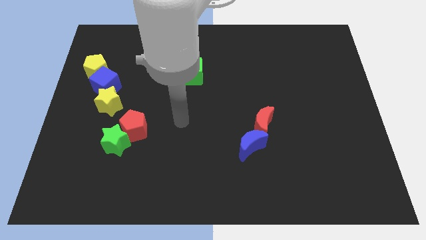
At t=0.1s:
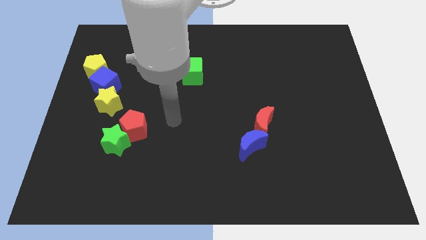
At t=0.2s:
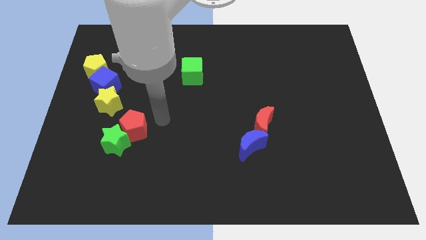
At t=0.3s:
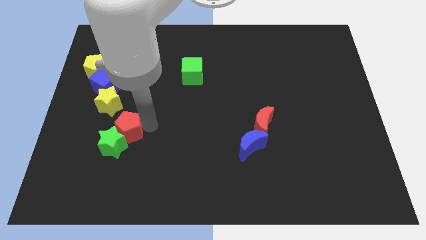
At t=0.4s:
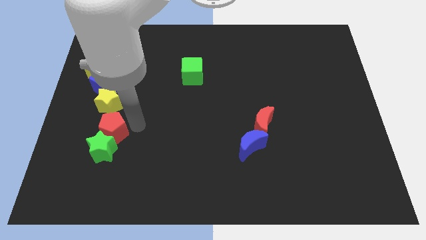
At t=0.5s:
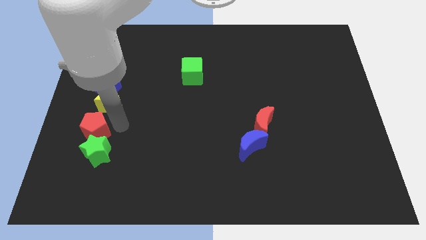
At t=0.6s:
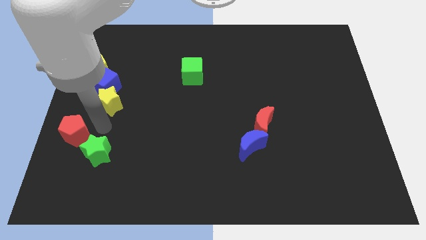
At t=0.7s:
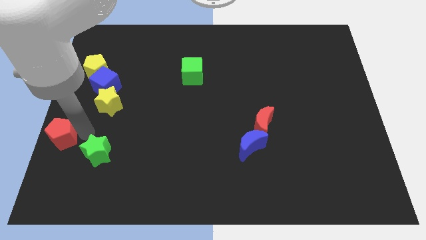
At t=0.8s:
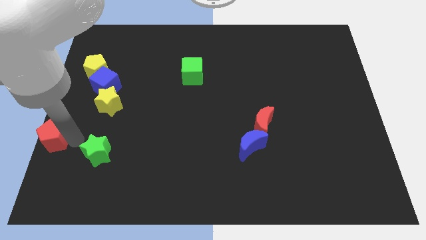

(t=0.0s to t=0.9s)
separate the green star from the red pentagon

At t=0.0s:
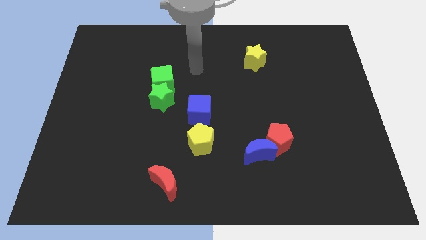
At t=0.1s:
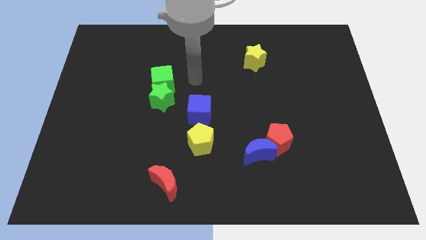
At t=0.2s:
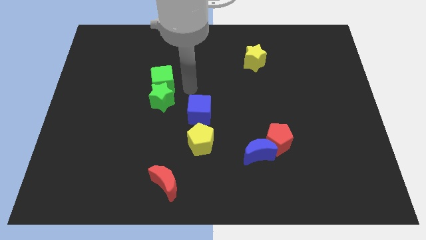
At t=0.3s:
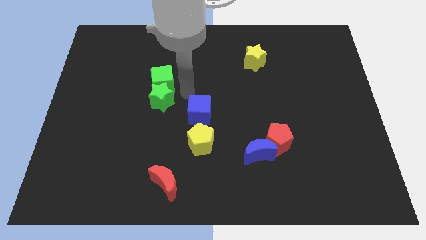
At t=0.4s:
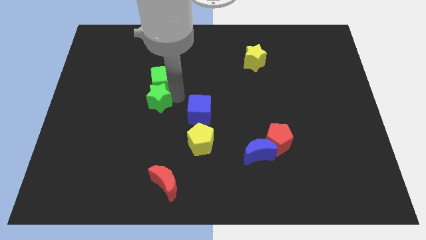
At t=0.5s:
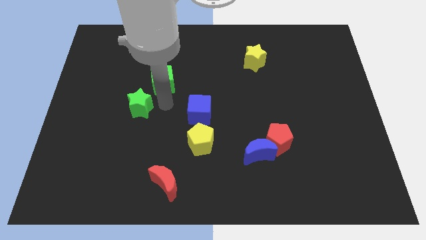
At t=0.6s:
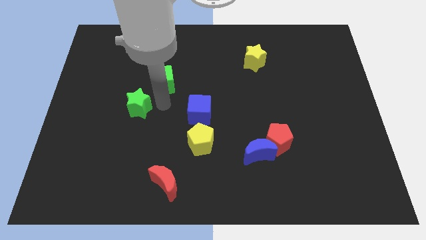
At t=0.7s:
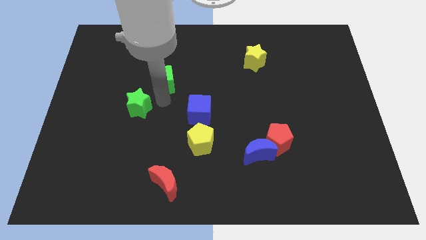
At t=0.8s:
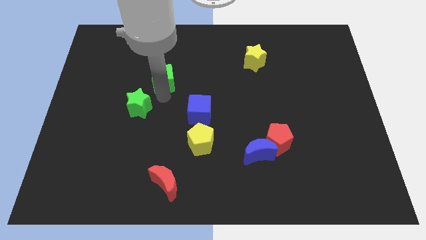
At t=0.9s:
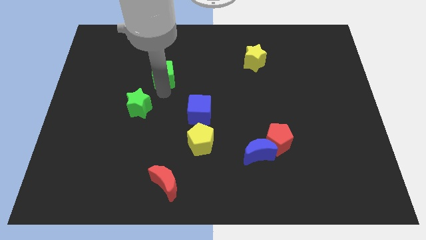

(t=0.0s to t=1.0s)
move the green cube away from the green star

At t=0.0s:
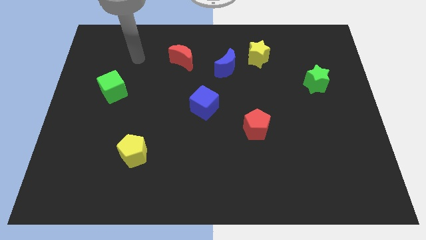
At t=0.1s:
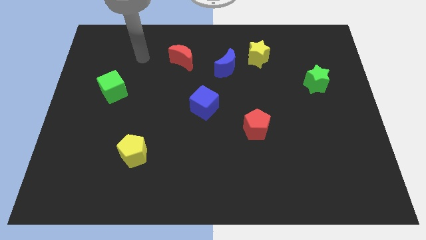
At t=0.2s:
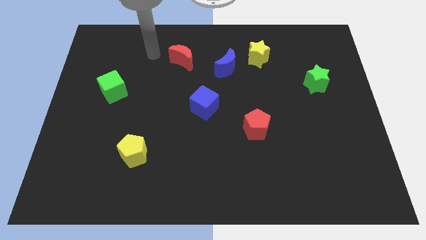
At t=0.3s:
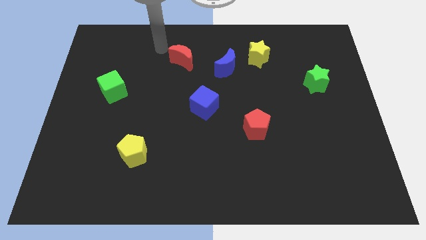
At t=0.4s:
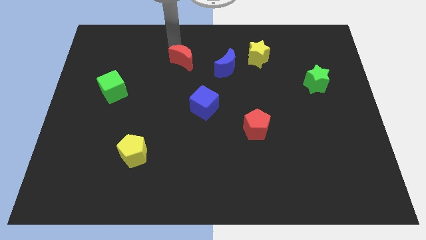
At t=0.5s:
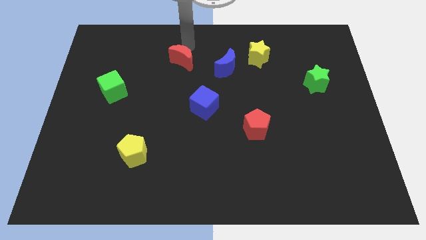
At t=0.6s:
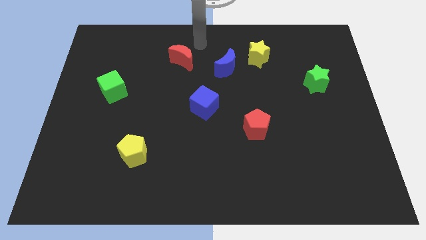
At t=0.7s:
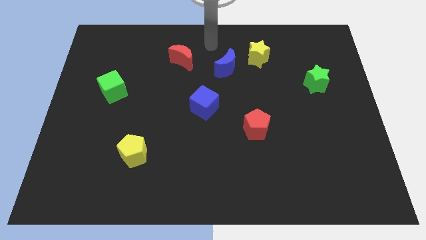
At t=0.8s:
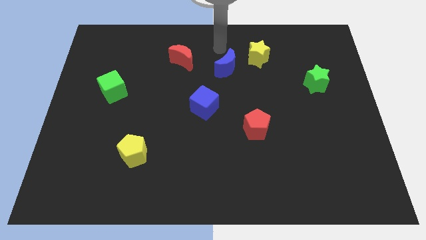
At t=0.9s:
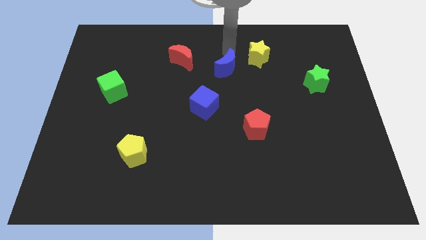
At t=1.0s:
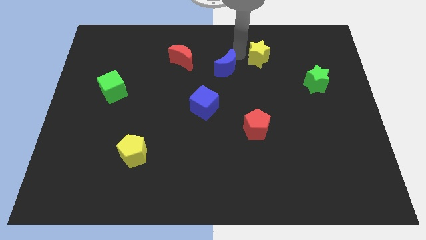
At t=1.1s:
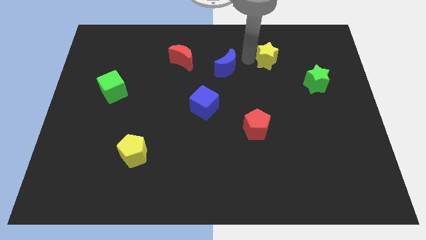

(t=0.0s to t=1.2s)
separate the blue moon from the yellow star

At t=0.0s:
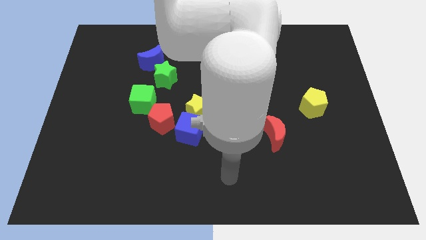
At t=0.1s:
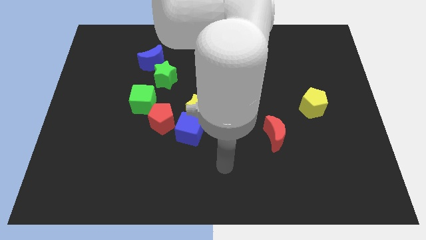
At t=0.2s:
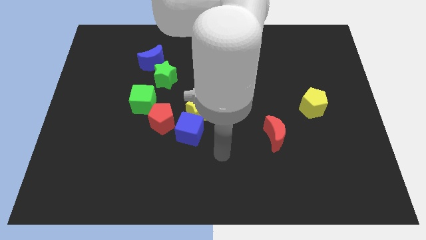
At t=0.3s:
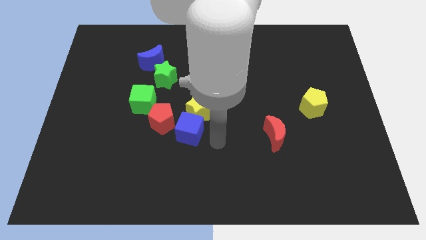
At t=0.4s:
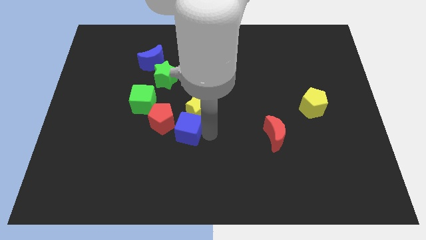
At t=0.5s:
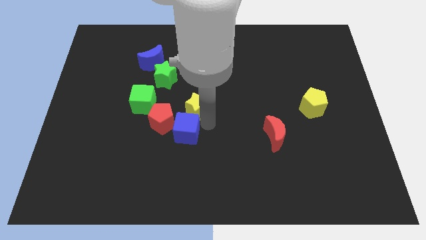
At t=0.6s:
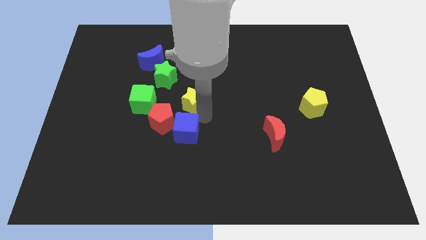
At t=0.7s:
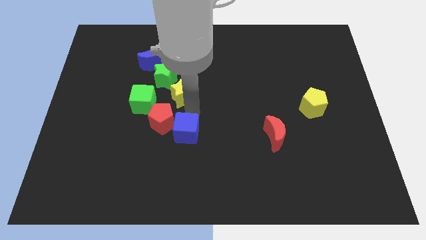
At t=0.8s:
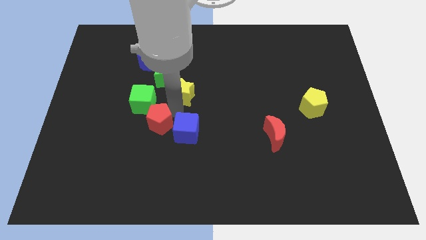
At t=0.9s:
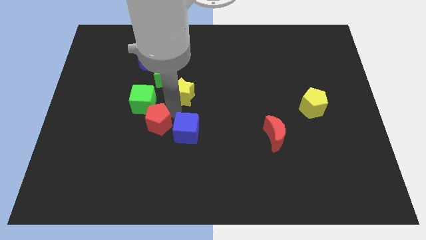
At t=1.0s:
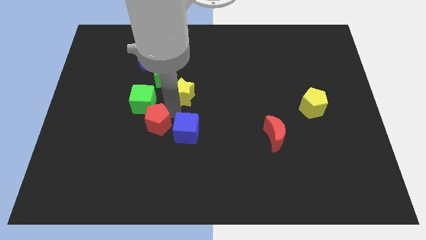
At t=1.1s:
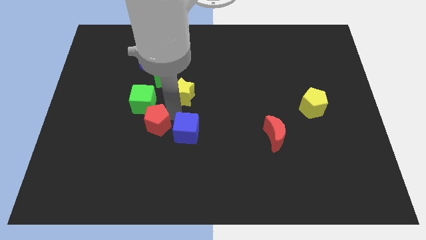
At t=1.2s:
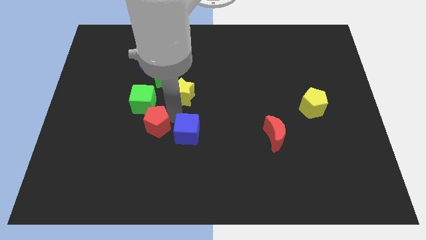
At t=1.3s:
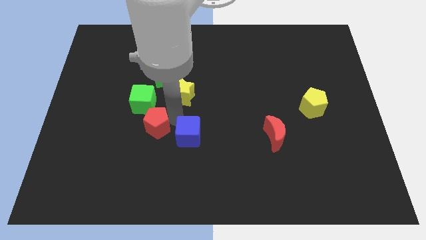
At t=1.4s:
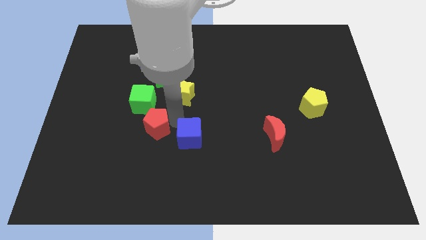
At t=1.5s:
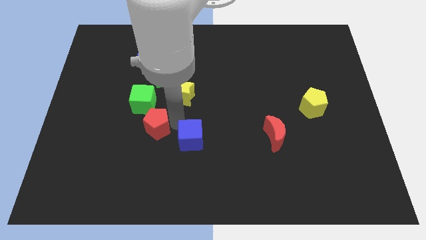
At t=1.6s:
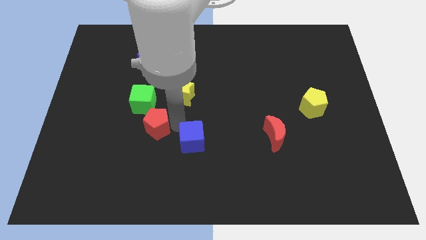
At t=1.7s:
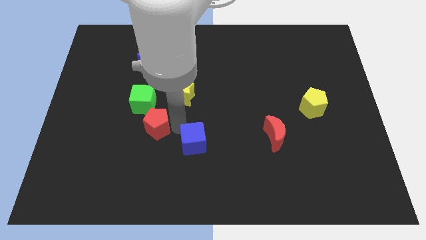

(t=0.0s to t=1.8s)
separate the blue cube from the yellow star and red pentagon

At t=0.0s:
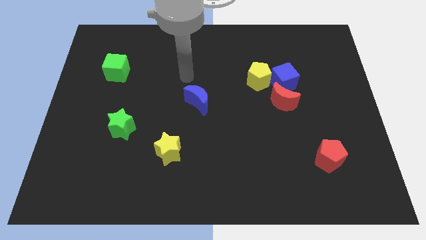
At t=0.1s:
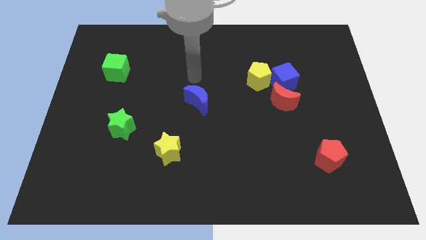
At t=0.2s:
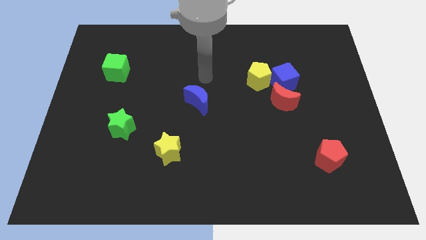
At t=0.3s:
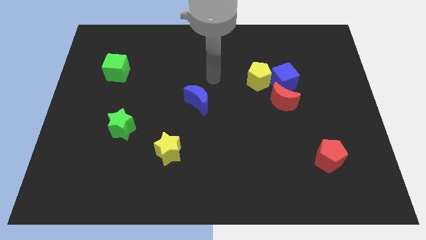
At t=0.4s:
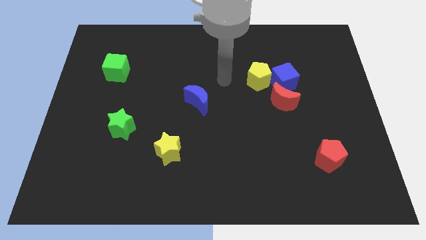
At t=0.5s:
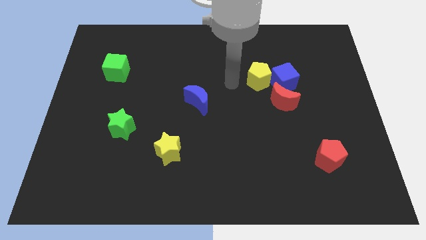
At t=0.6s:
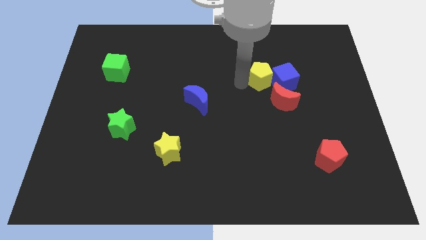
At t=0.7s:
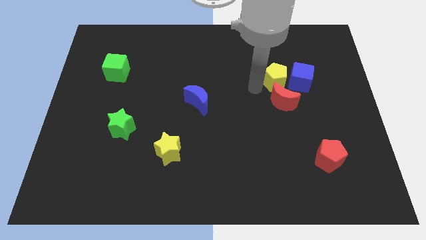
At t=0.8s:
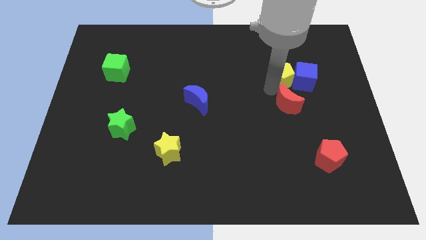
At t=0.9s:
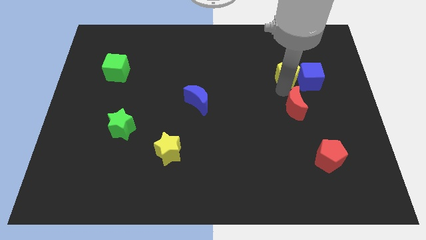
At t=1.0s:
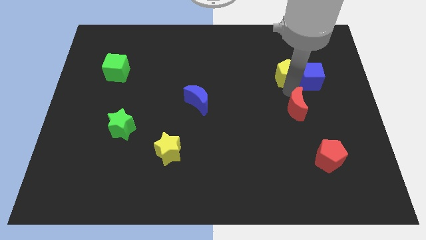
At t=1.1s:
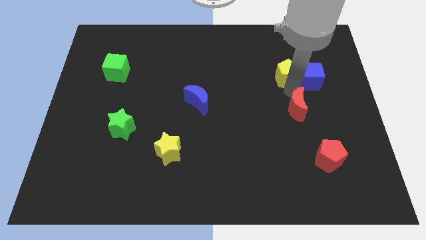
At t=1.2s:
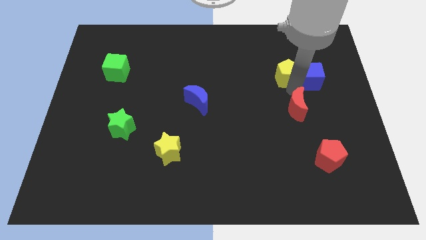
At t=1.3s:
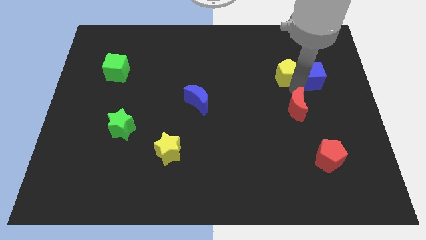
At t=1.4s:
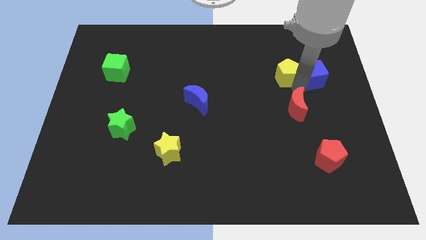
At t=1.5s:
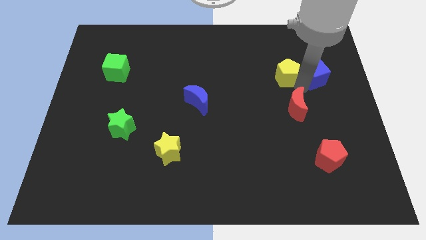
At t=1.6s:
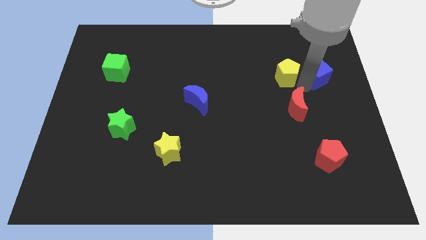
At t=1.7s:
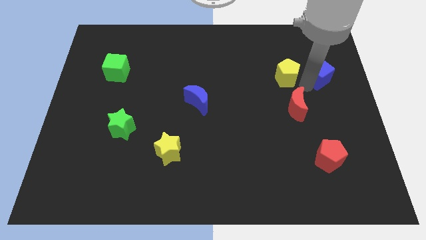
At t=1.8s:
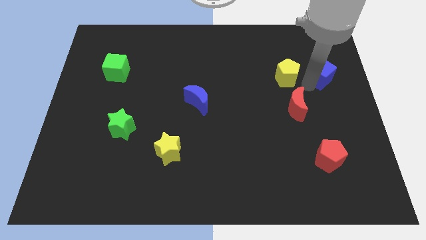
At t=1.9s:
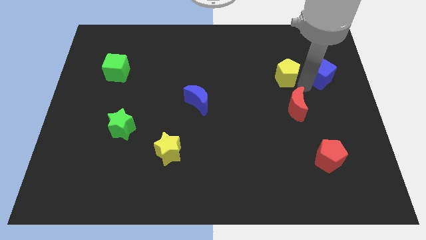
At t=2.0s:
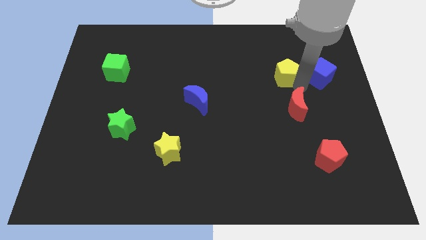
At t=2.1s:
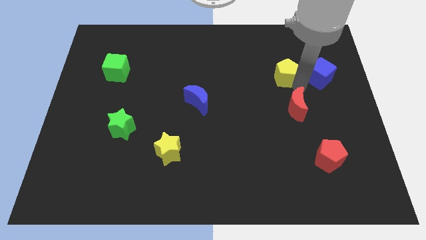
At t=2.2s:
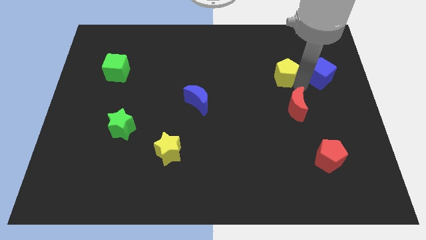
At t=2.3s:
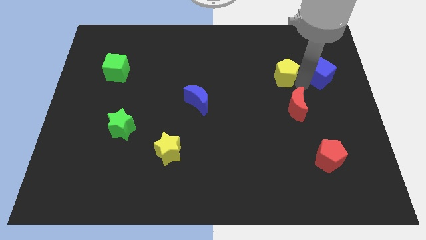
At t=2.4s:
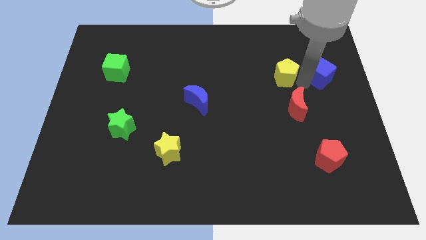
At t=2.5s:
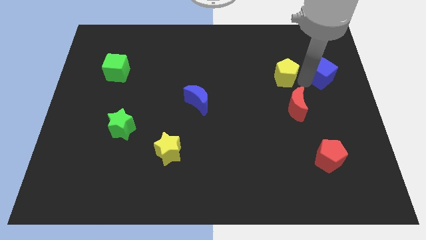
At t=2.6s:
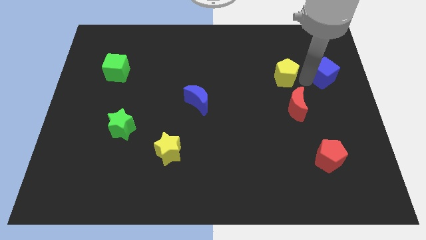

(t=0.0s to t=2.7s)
pull the blue cube apart from the yellow pentagon and red moon

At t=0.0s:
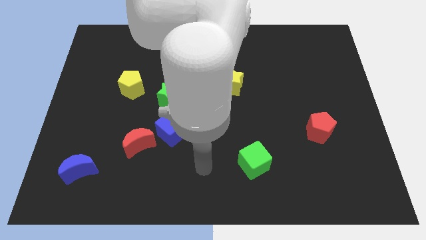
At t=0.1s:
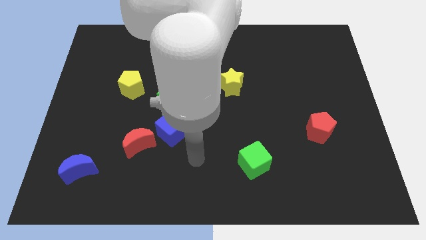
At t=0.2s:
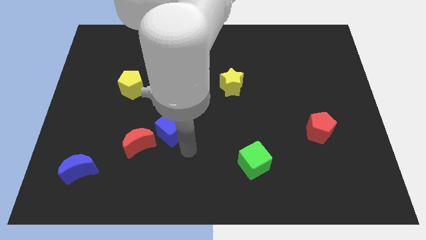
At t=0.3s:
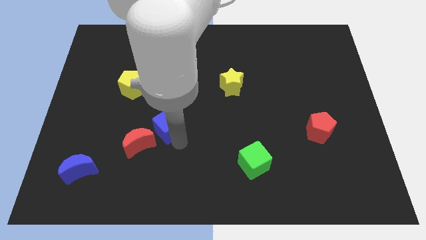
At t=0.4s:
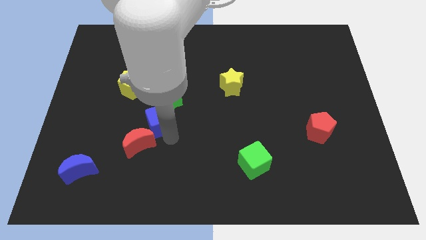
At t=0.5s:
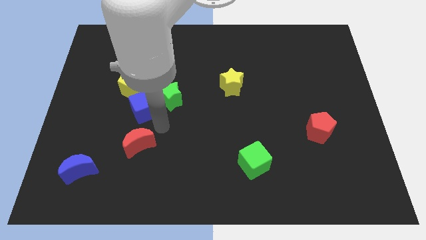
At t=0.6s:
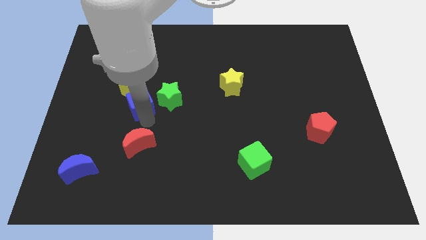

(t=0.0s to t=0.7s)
separate the red moon from the blue cube

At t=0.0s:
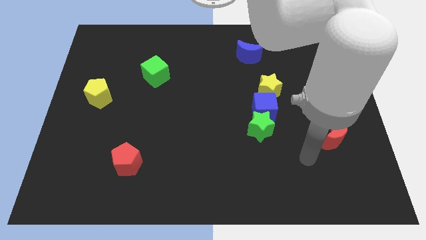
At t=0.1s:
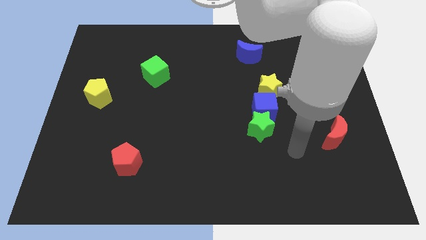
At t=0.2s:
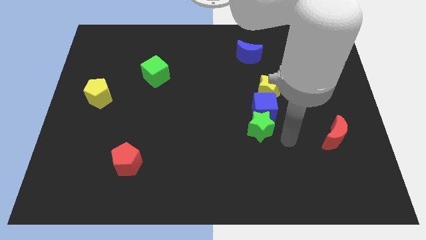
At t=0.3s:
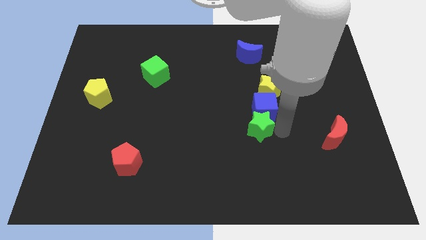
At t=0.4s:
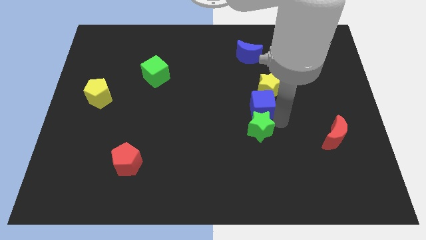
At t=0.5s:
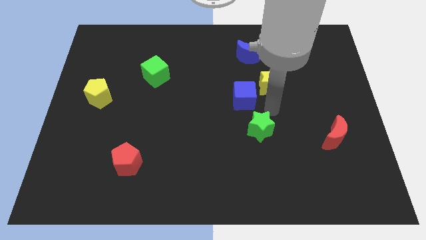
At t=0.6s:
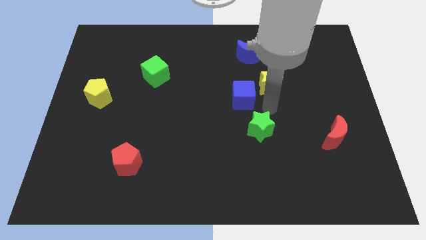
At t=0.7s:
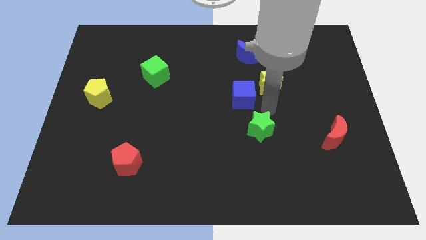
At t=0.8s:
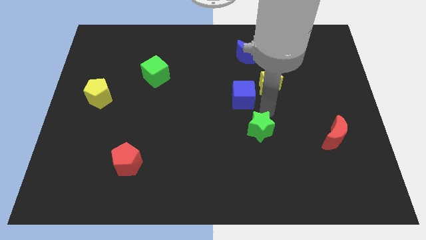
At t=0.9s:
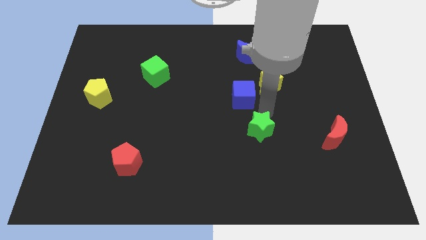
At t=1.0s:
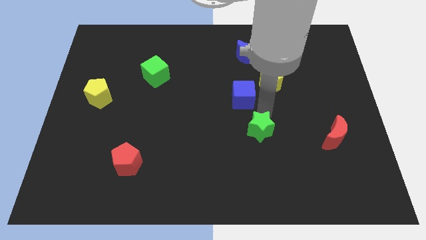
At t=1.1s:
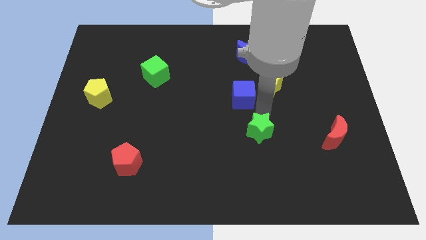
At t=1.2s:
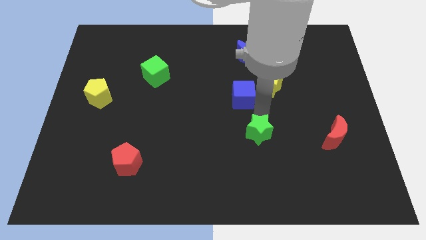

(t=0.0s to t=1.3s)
pull the green star apart from the blue cube
